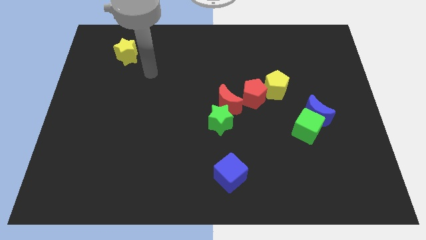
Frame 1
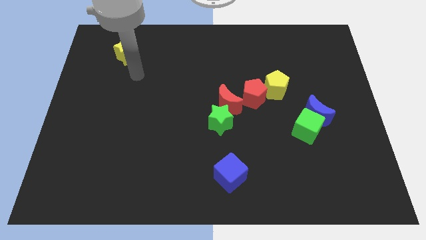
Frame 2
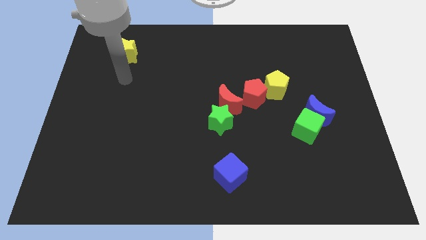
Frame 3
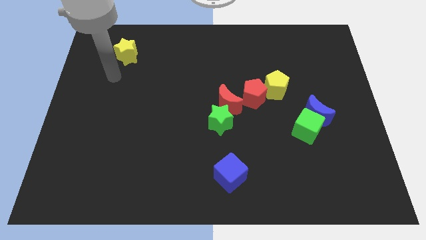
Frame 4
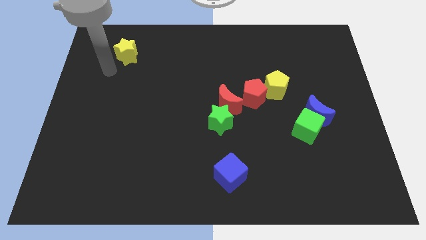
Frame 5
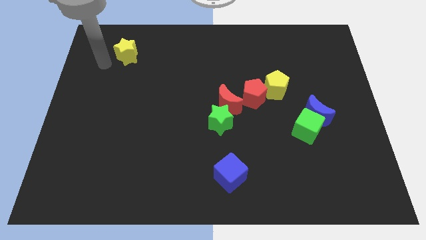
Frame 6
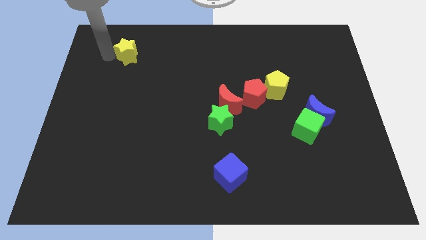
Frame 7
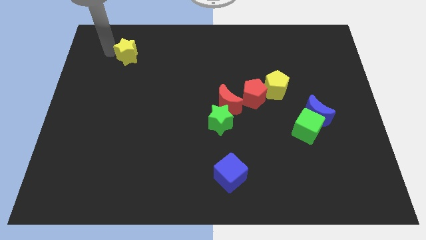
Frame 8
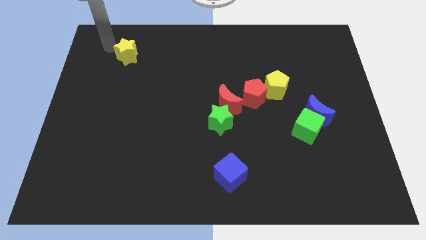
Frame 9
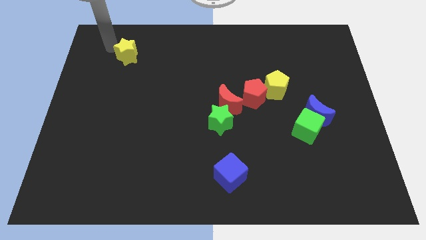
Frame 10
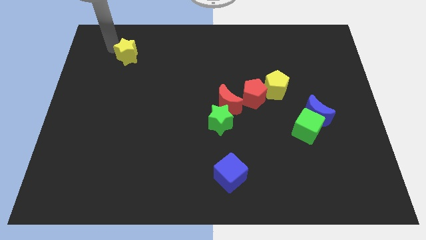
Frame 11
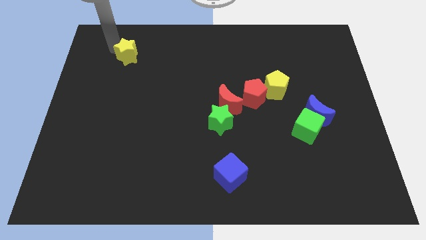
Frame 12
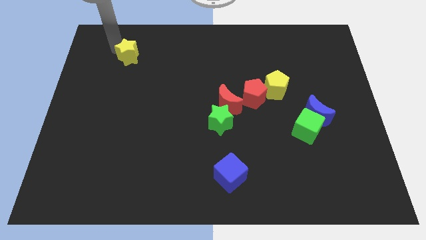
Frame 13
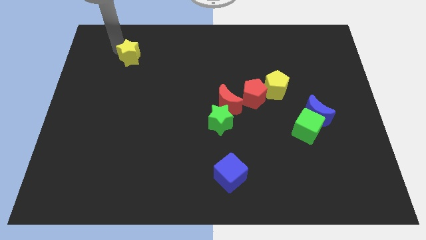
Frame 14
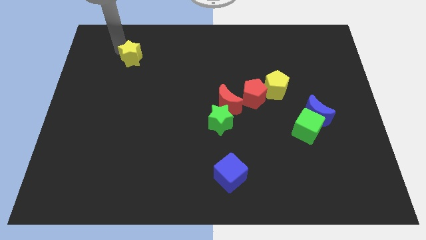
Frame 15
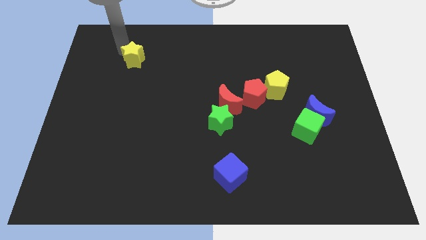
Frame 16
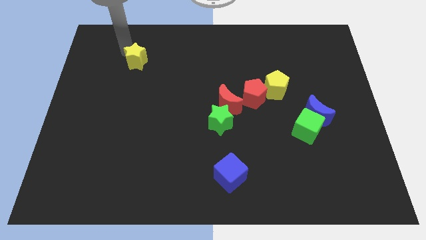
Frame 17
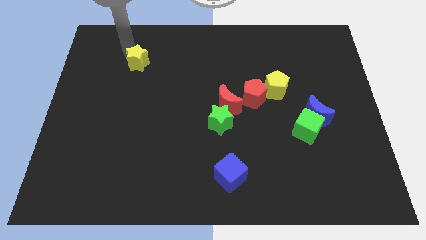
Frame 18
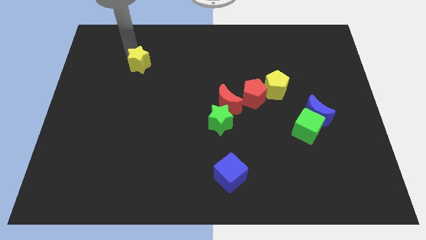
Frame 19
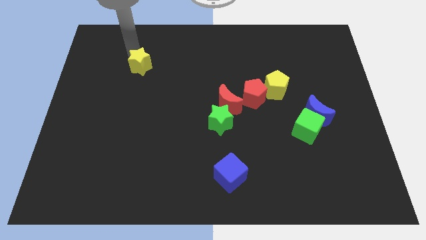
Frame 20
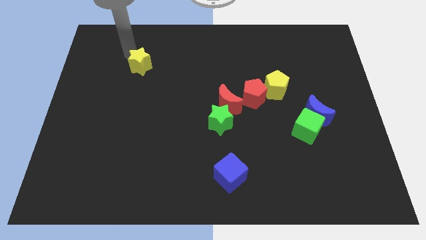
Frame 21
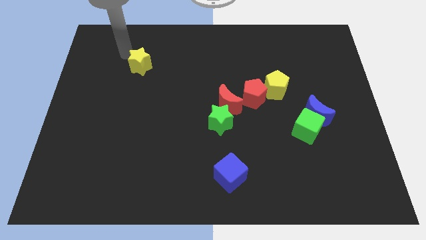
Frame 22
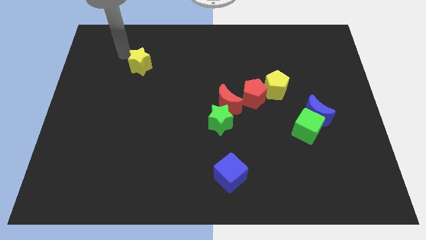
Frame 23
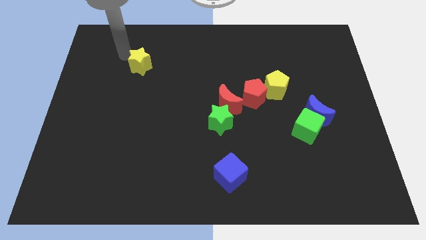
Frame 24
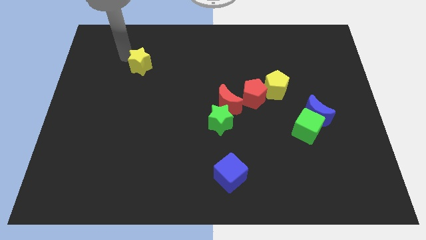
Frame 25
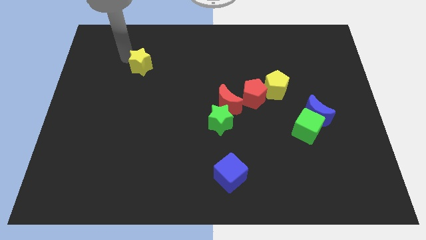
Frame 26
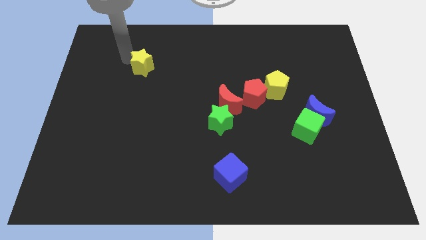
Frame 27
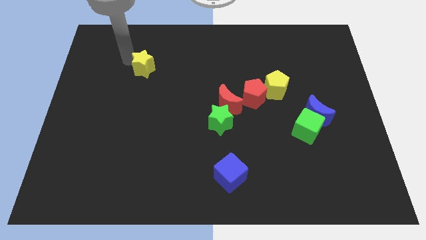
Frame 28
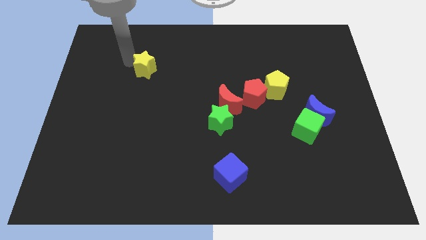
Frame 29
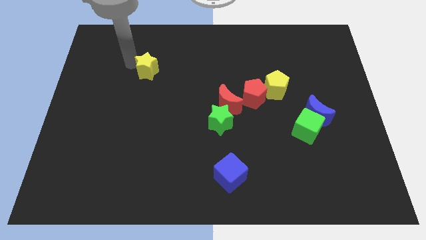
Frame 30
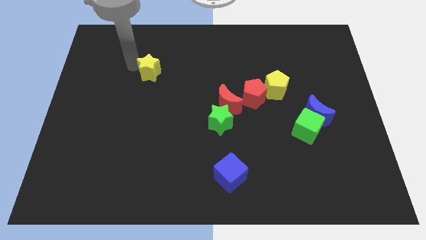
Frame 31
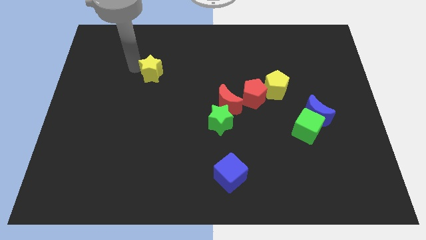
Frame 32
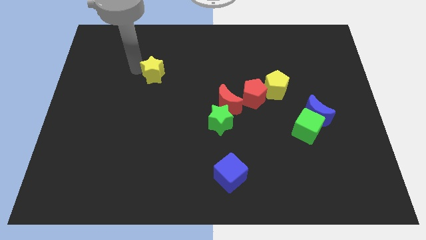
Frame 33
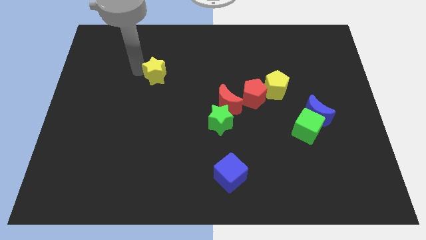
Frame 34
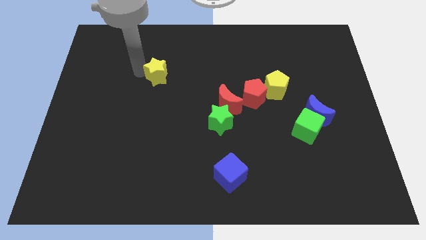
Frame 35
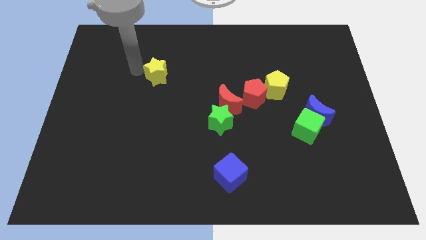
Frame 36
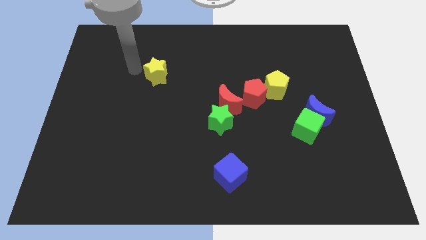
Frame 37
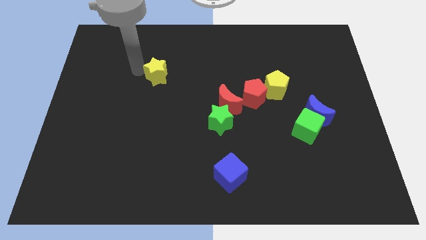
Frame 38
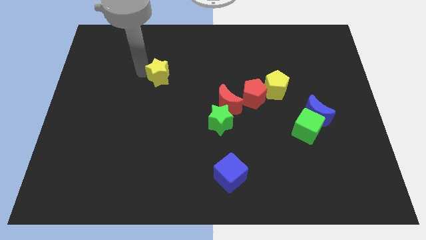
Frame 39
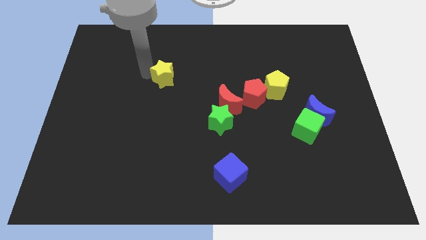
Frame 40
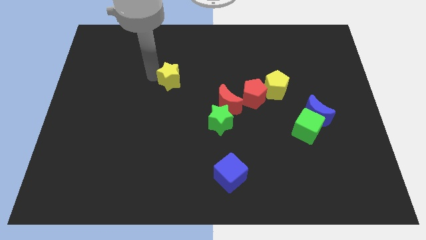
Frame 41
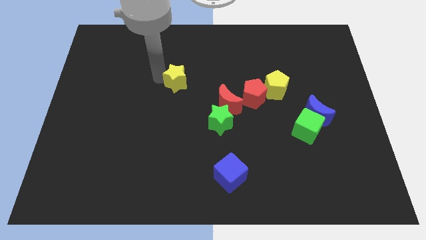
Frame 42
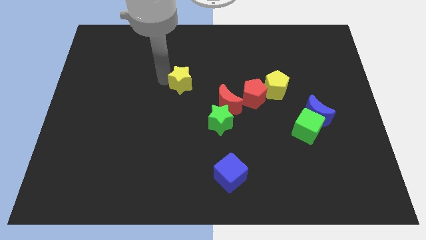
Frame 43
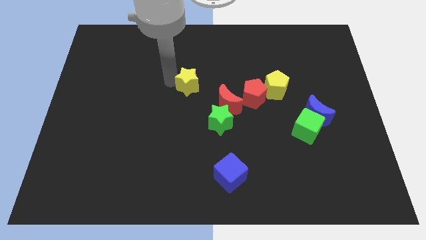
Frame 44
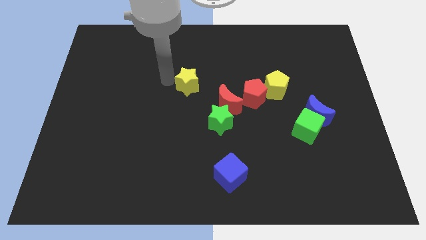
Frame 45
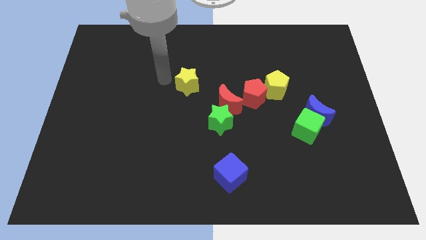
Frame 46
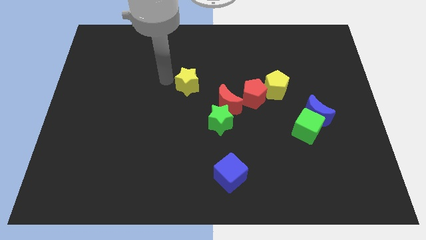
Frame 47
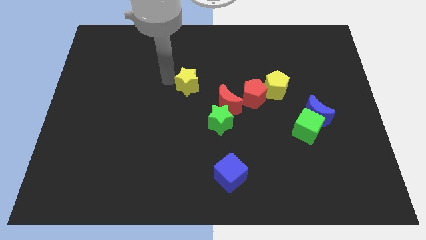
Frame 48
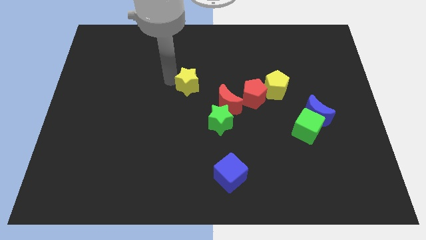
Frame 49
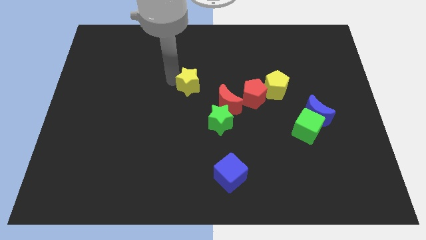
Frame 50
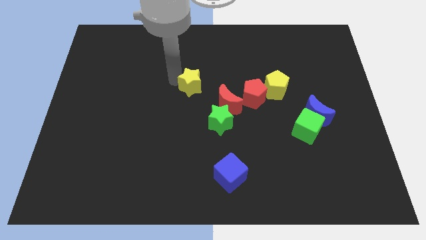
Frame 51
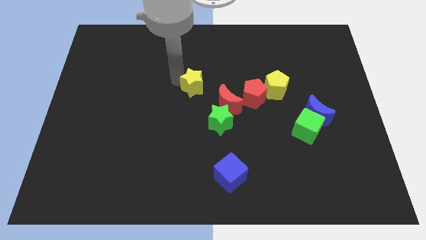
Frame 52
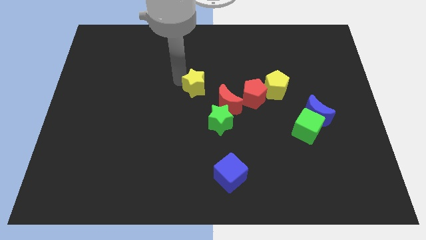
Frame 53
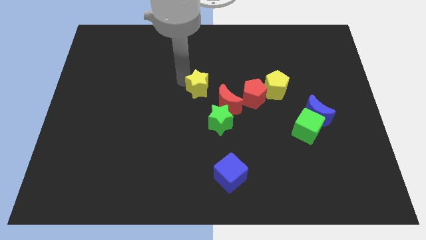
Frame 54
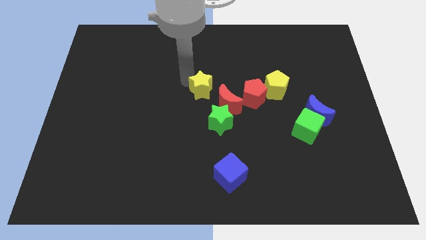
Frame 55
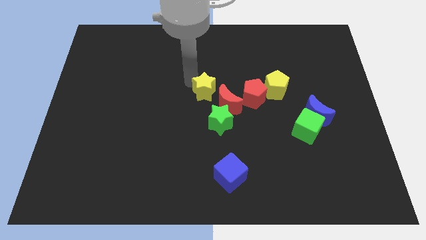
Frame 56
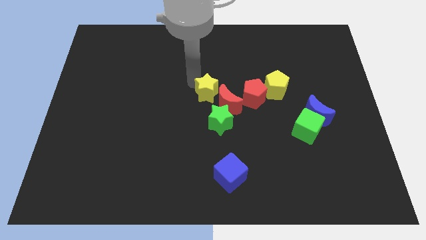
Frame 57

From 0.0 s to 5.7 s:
push the yellow star to the red moon

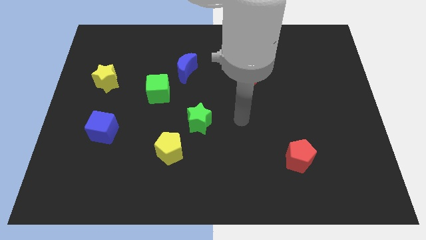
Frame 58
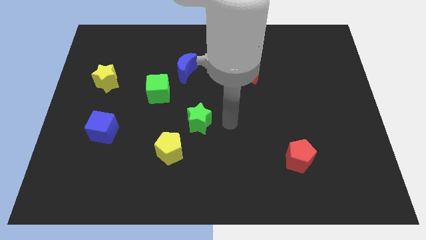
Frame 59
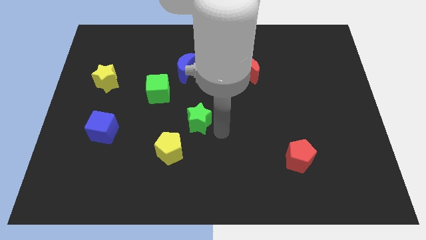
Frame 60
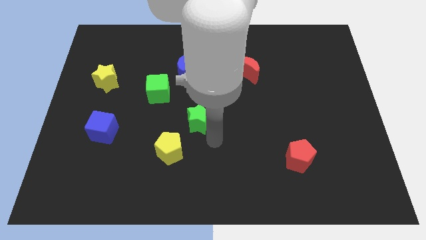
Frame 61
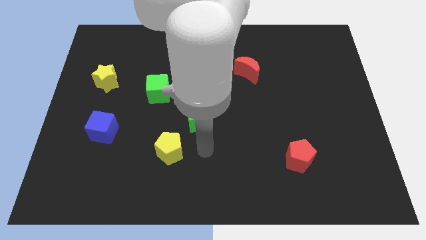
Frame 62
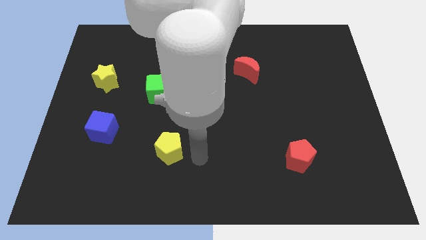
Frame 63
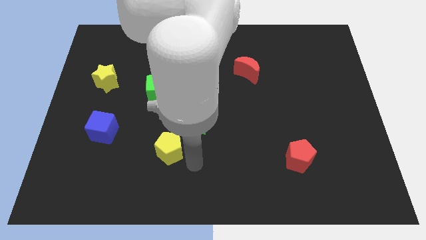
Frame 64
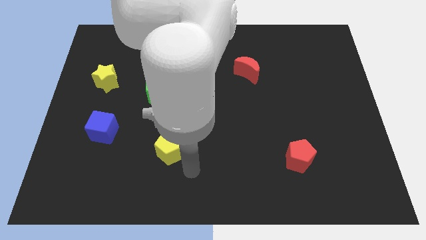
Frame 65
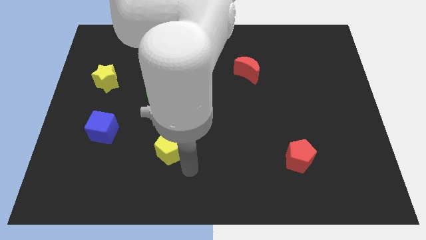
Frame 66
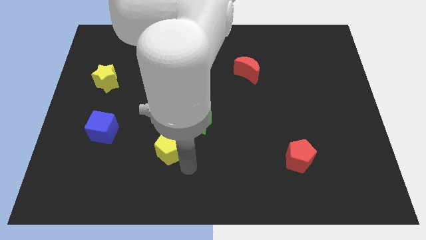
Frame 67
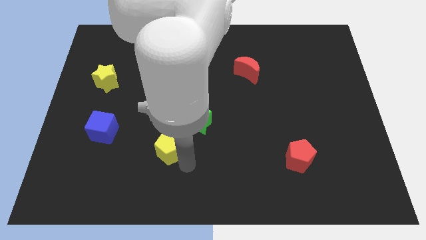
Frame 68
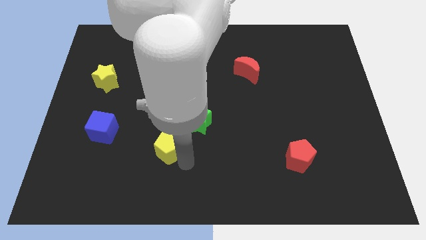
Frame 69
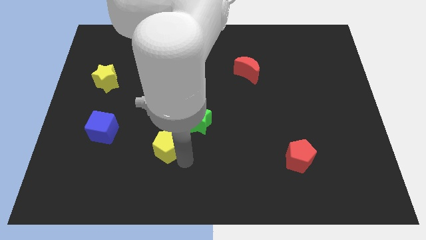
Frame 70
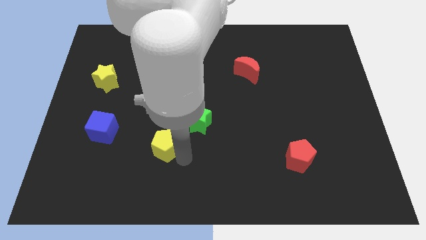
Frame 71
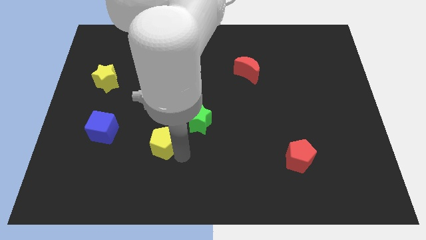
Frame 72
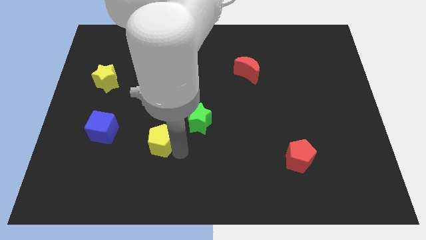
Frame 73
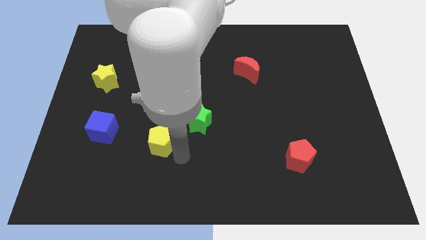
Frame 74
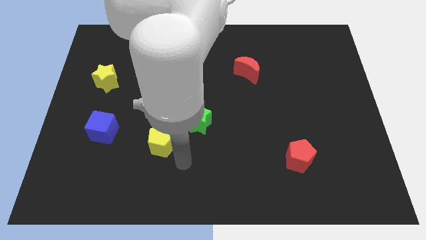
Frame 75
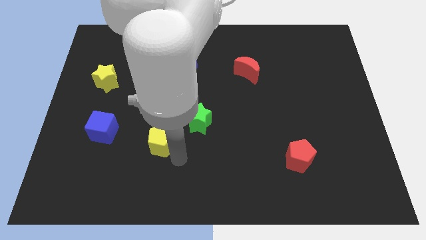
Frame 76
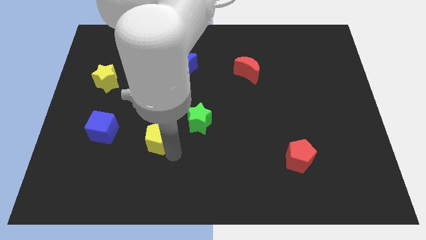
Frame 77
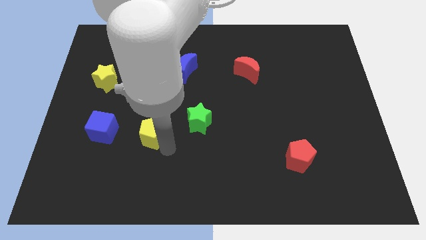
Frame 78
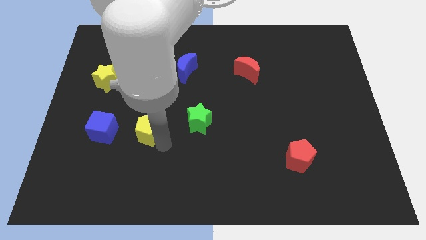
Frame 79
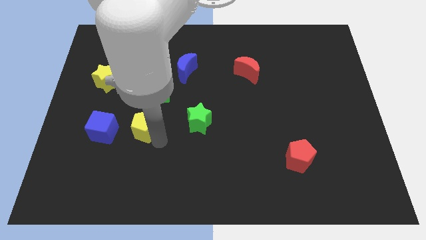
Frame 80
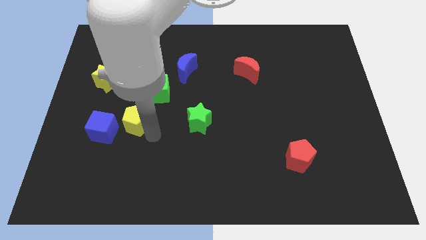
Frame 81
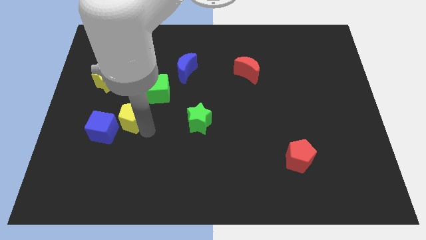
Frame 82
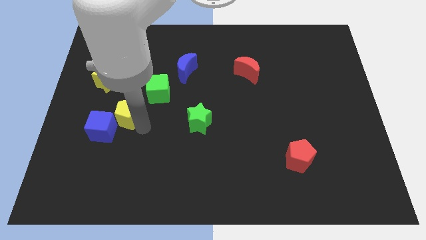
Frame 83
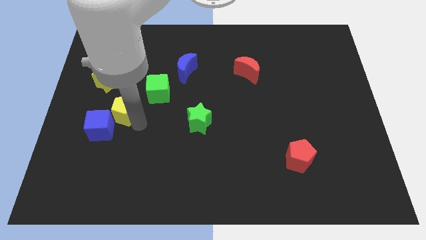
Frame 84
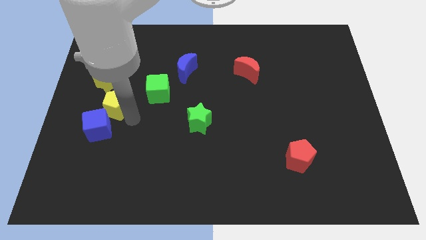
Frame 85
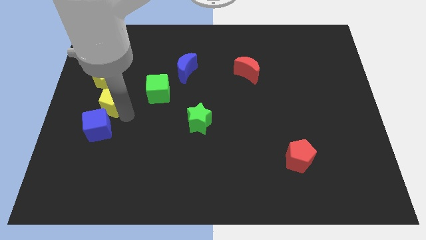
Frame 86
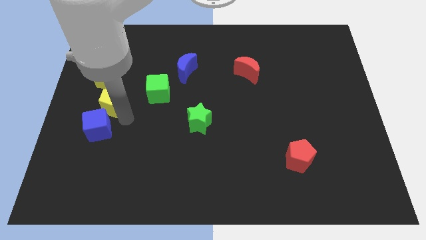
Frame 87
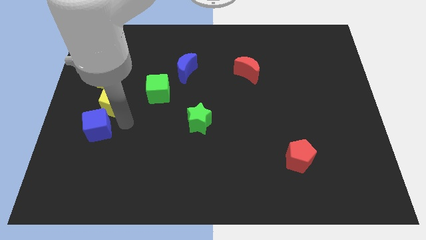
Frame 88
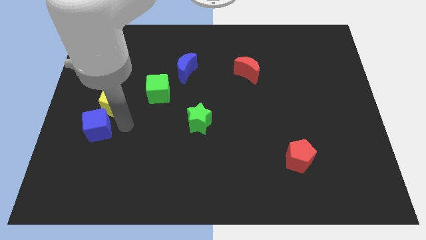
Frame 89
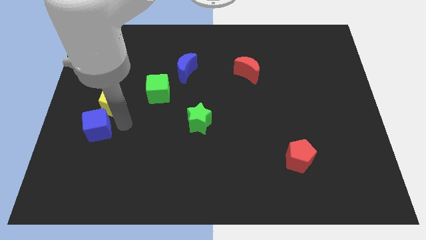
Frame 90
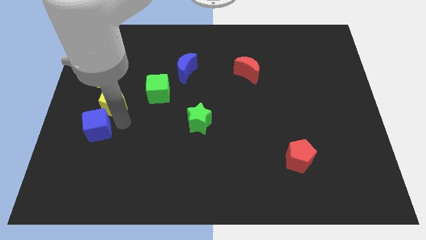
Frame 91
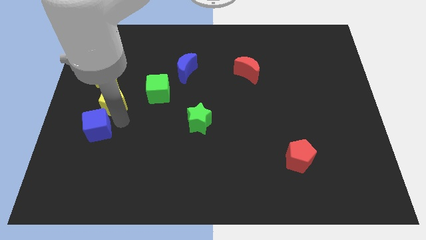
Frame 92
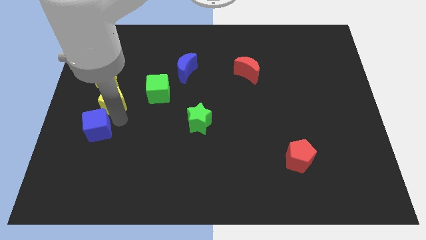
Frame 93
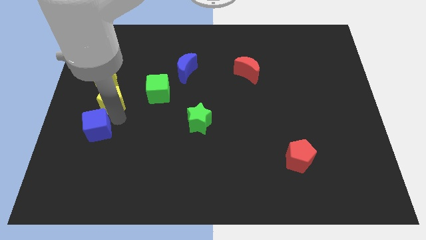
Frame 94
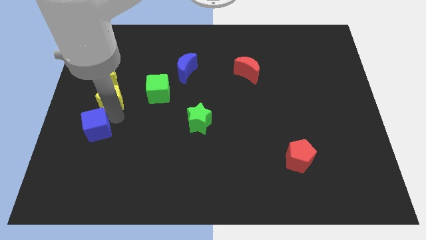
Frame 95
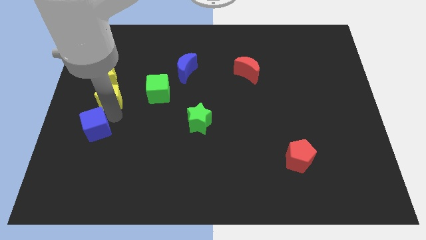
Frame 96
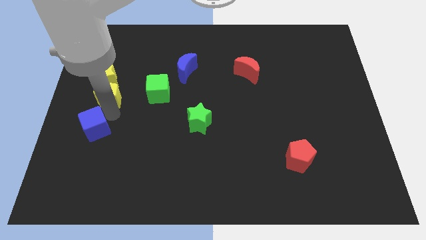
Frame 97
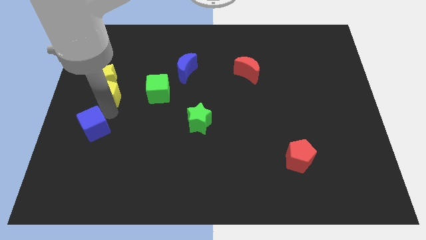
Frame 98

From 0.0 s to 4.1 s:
move the yellow pentagon towards the yellow star
